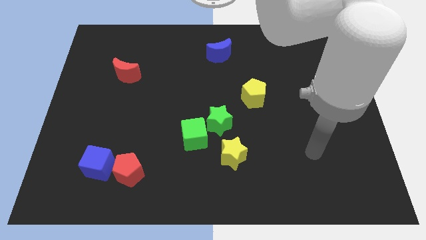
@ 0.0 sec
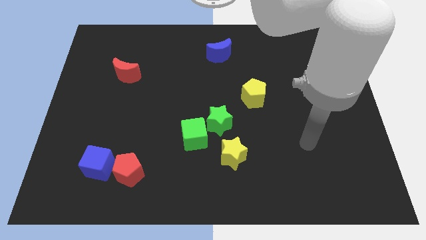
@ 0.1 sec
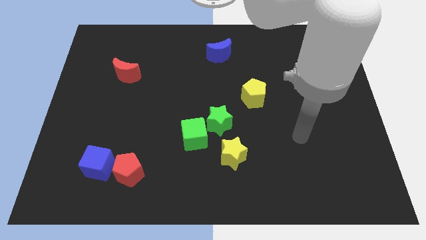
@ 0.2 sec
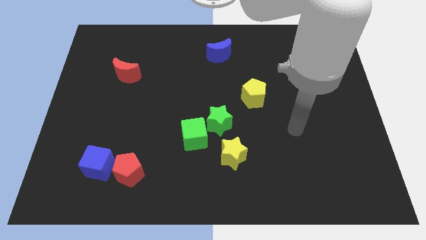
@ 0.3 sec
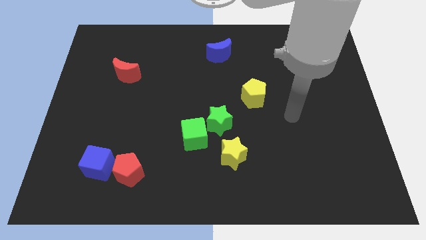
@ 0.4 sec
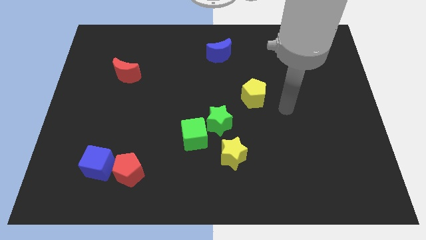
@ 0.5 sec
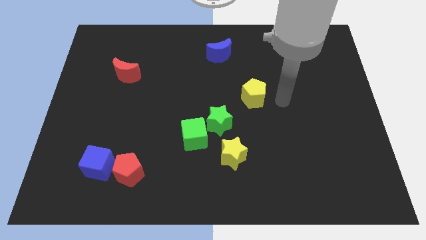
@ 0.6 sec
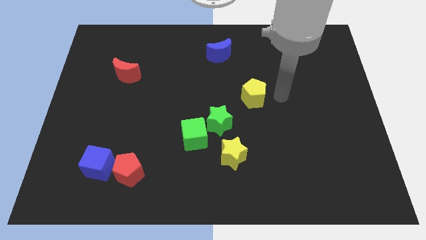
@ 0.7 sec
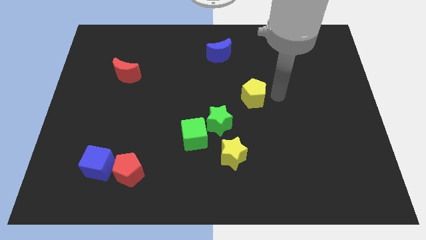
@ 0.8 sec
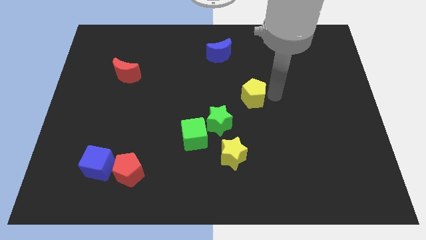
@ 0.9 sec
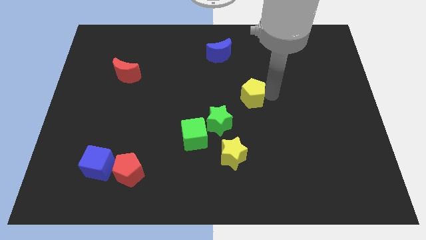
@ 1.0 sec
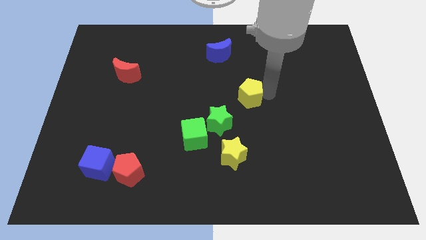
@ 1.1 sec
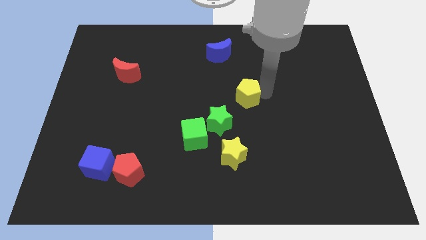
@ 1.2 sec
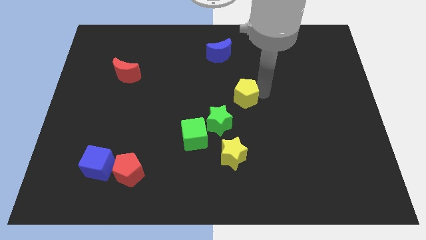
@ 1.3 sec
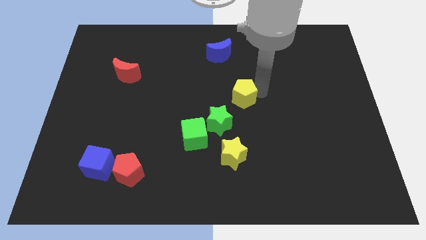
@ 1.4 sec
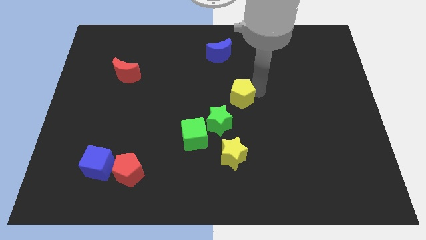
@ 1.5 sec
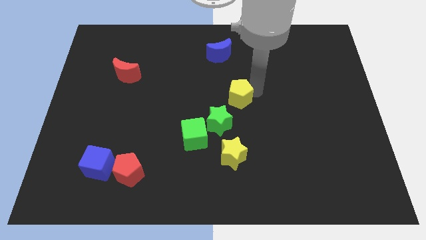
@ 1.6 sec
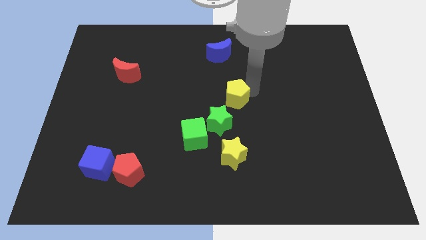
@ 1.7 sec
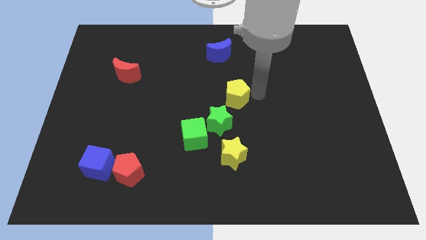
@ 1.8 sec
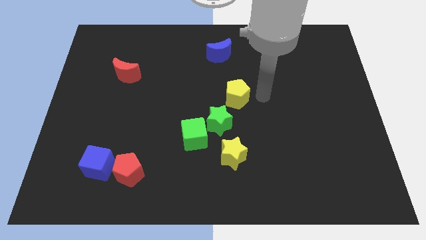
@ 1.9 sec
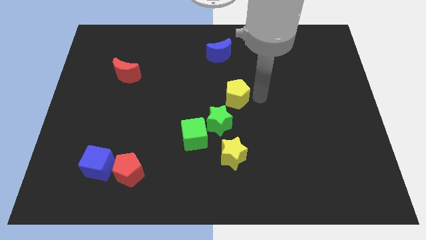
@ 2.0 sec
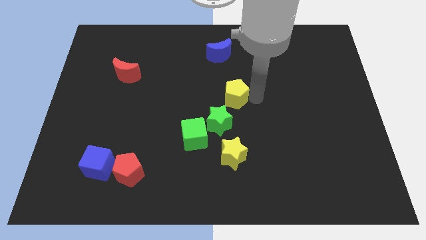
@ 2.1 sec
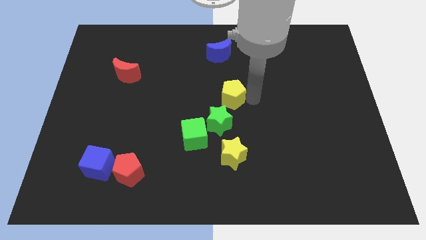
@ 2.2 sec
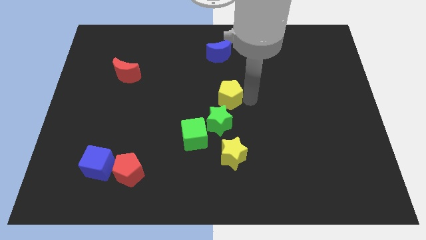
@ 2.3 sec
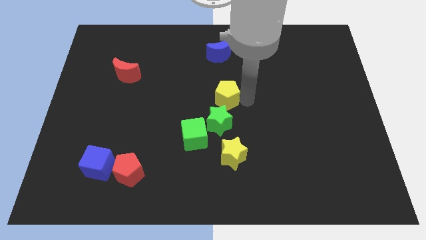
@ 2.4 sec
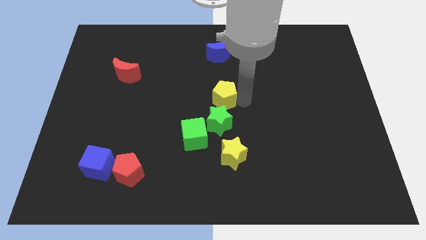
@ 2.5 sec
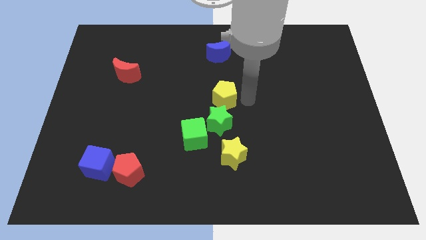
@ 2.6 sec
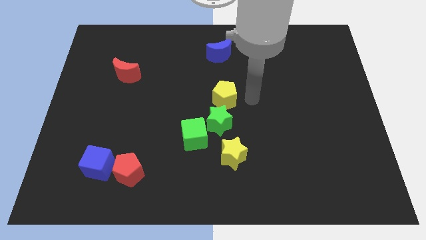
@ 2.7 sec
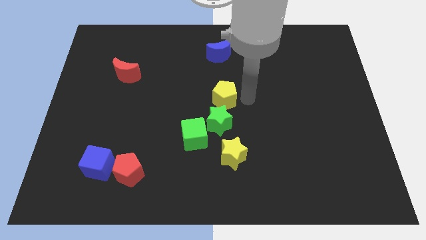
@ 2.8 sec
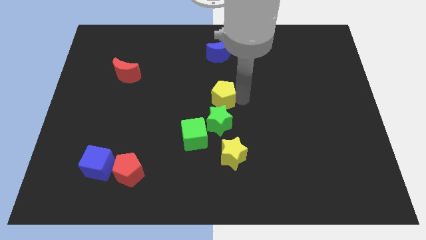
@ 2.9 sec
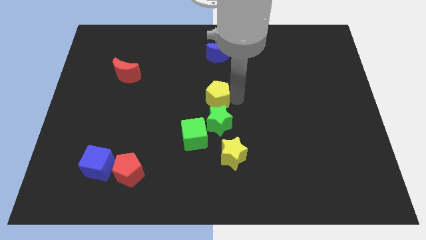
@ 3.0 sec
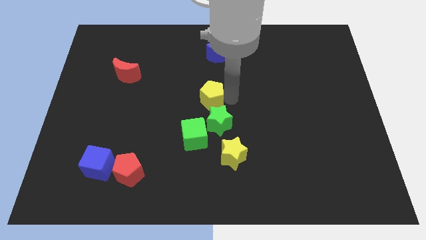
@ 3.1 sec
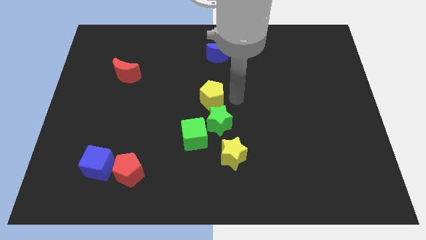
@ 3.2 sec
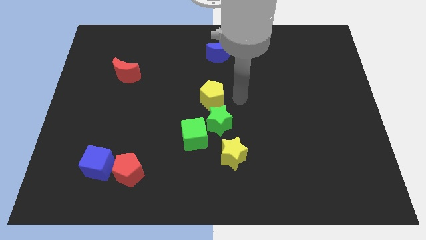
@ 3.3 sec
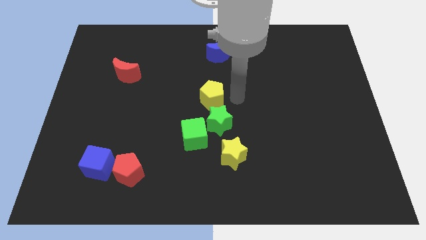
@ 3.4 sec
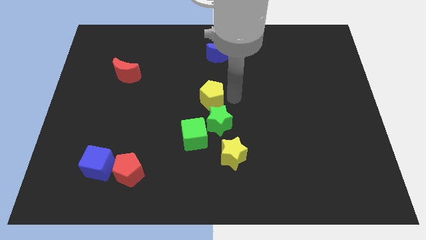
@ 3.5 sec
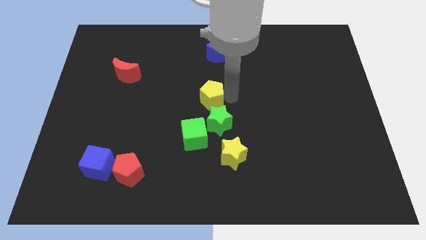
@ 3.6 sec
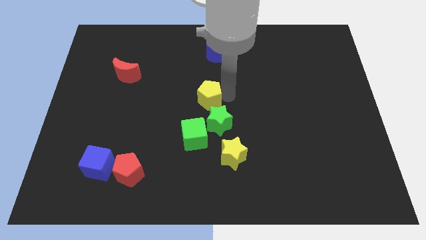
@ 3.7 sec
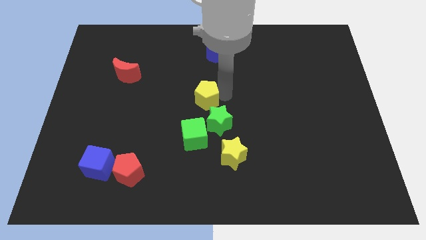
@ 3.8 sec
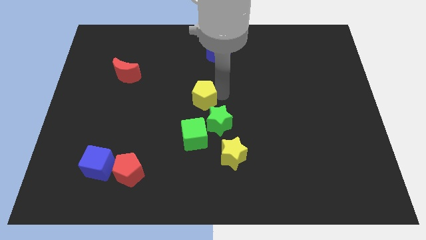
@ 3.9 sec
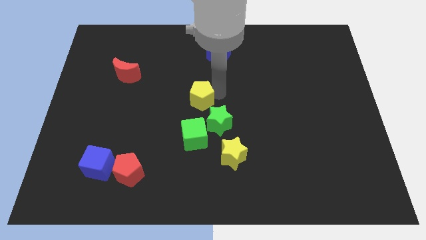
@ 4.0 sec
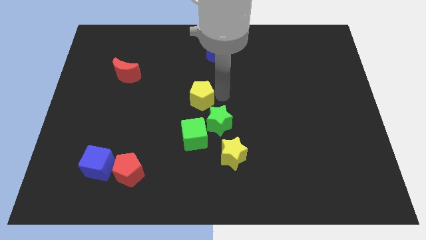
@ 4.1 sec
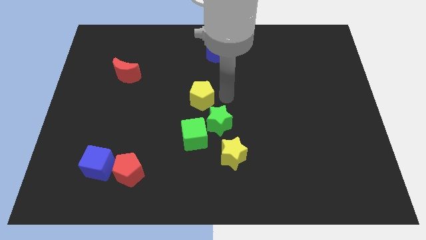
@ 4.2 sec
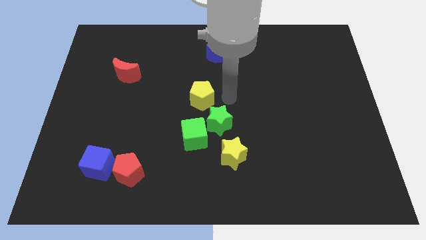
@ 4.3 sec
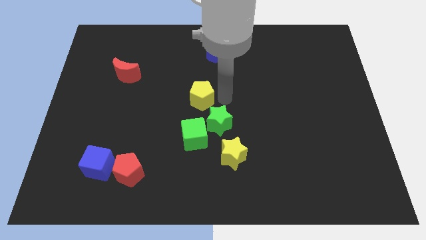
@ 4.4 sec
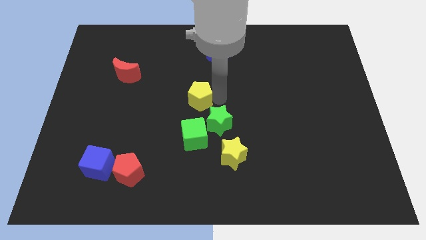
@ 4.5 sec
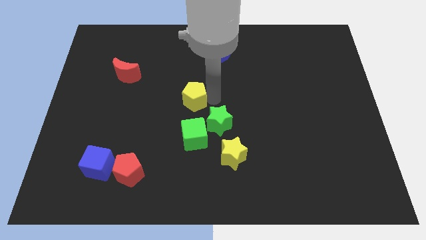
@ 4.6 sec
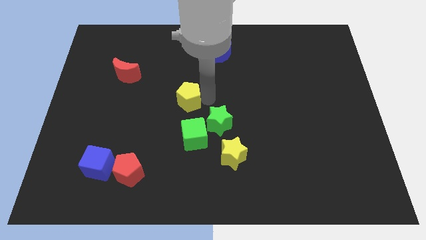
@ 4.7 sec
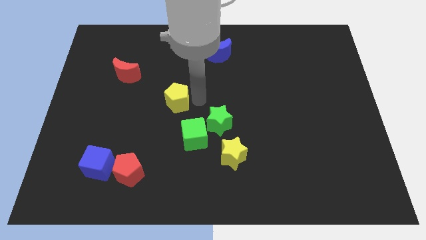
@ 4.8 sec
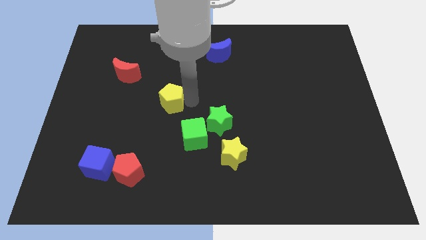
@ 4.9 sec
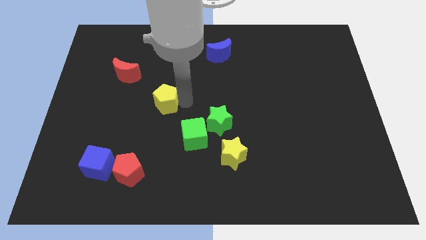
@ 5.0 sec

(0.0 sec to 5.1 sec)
slide the yellow pentagon to the left

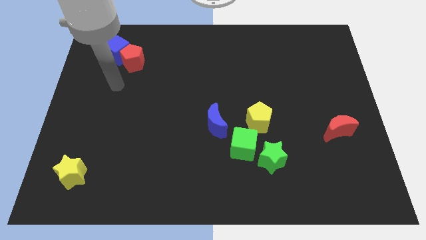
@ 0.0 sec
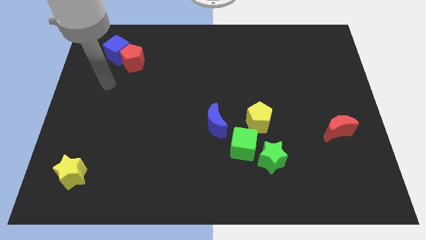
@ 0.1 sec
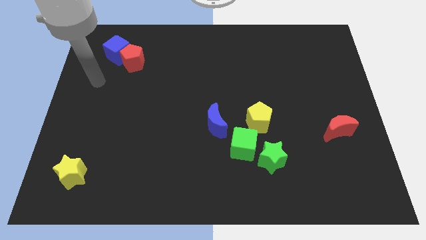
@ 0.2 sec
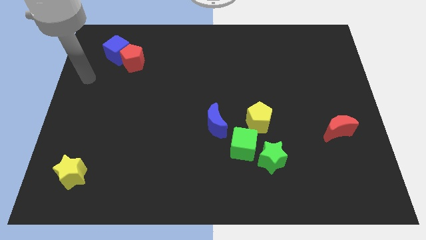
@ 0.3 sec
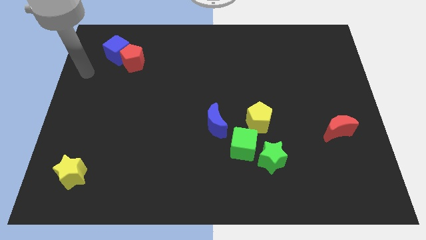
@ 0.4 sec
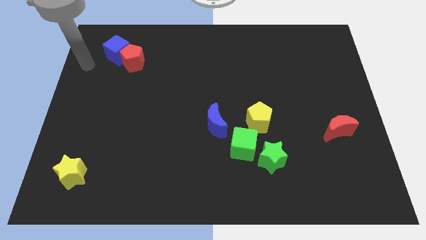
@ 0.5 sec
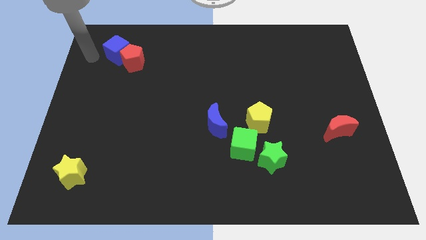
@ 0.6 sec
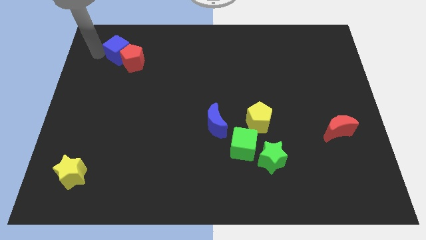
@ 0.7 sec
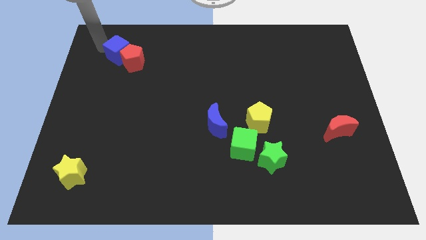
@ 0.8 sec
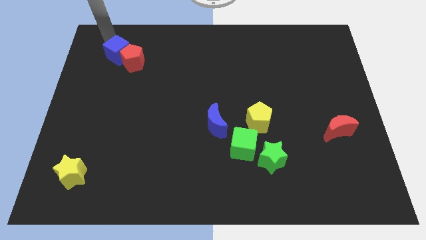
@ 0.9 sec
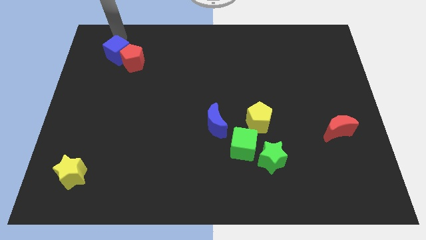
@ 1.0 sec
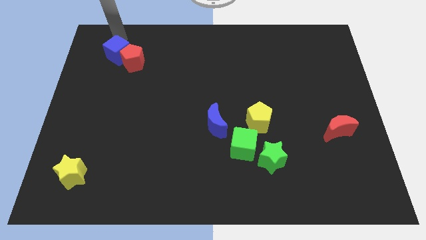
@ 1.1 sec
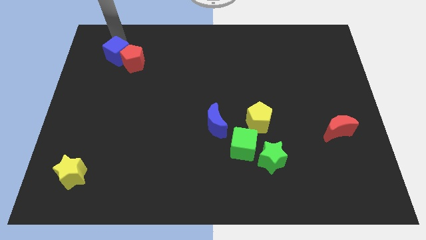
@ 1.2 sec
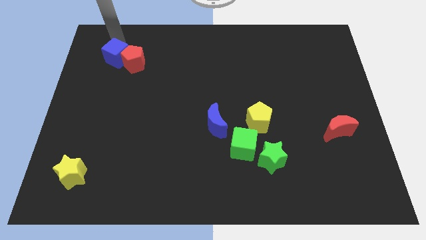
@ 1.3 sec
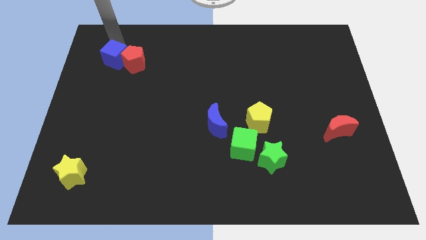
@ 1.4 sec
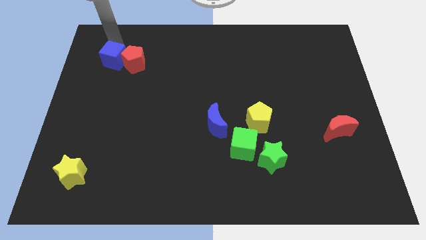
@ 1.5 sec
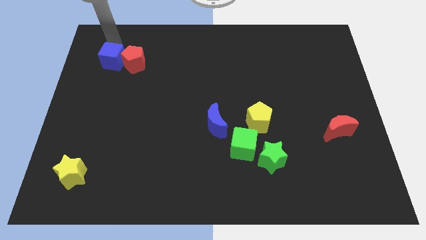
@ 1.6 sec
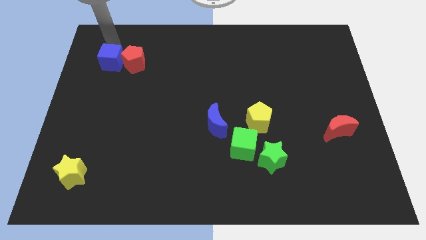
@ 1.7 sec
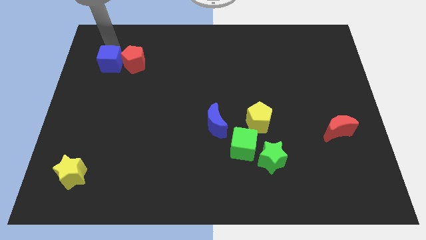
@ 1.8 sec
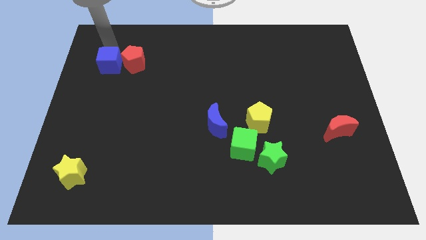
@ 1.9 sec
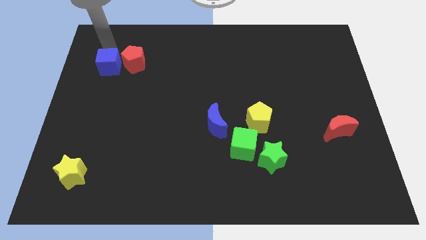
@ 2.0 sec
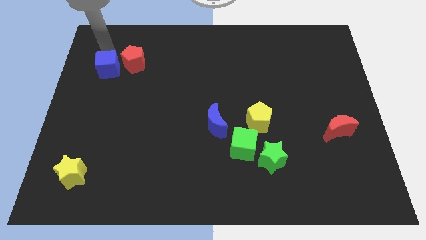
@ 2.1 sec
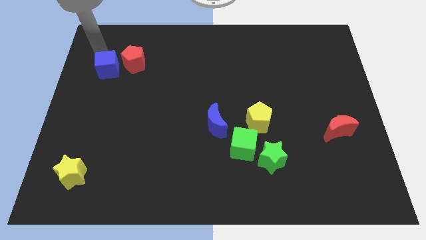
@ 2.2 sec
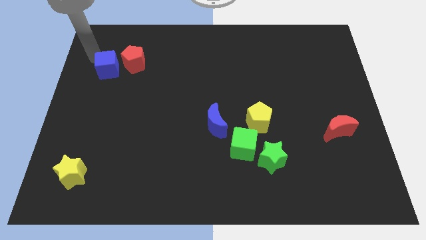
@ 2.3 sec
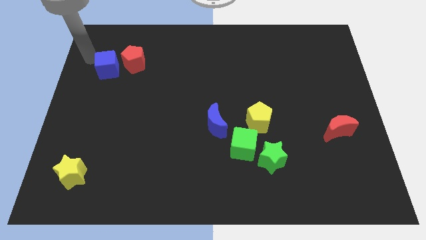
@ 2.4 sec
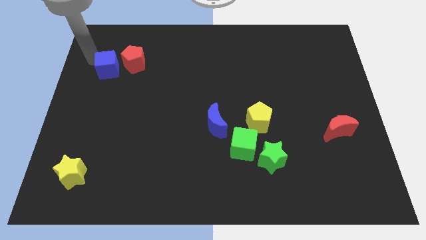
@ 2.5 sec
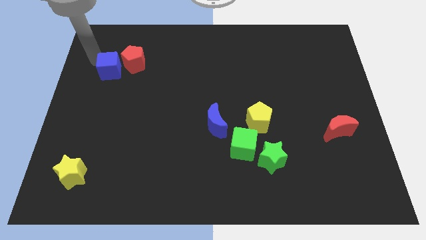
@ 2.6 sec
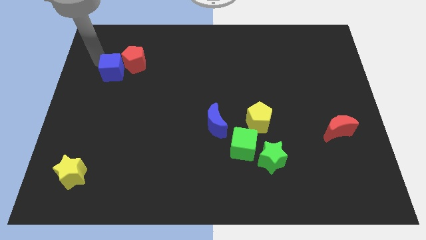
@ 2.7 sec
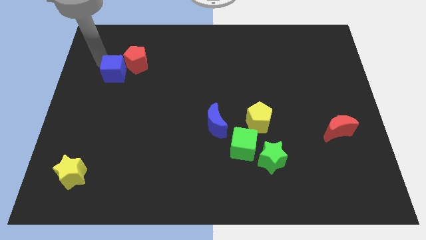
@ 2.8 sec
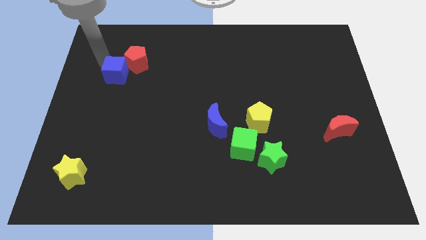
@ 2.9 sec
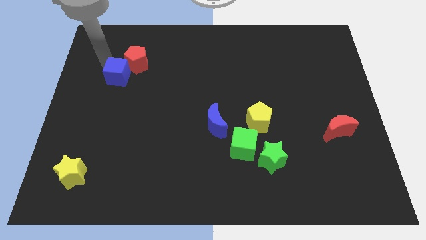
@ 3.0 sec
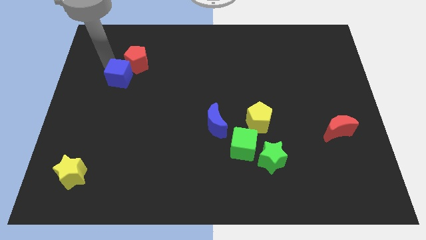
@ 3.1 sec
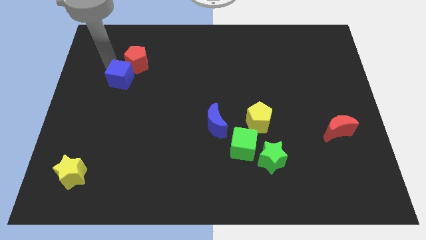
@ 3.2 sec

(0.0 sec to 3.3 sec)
slightly slide the blue cube downwards and right
